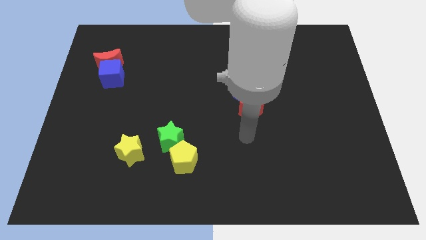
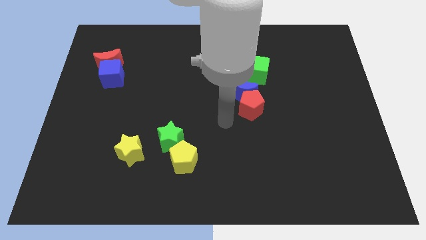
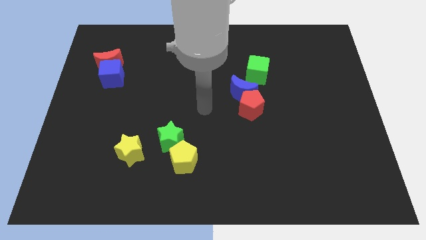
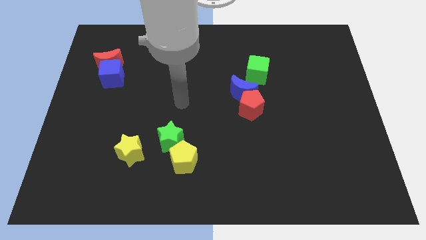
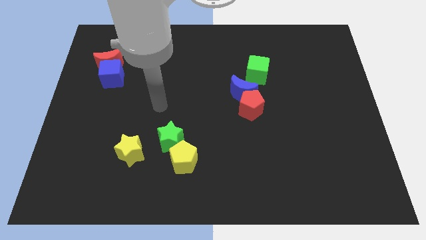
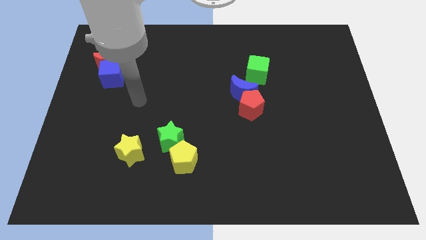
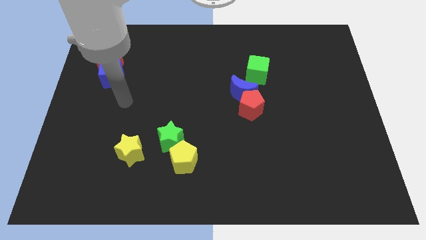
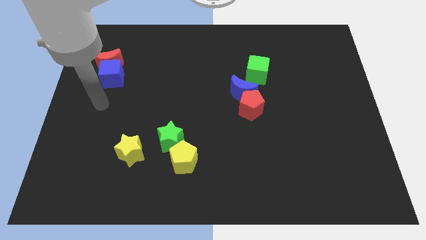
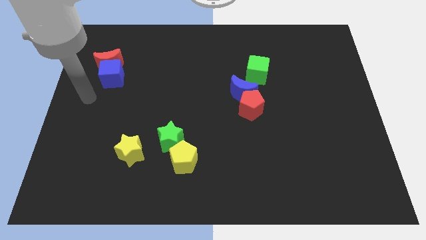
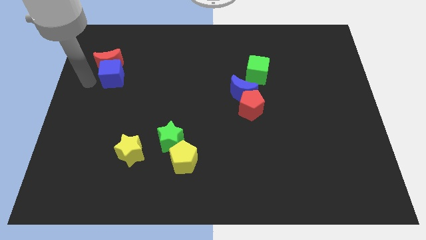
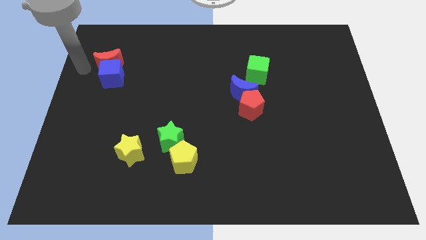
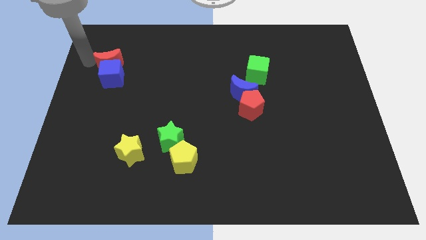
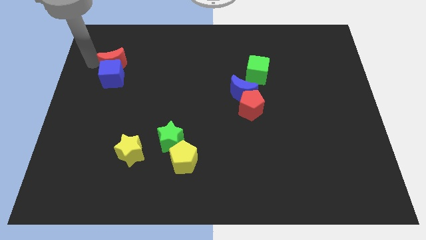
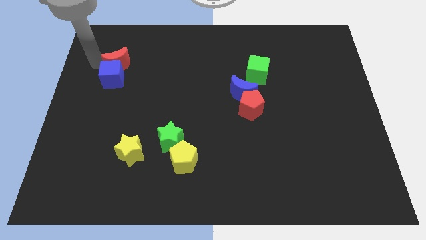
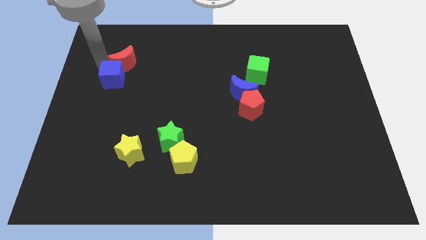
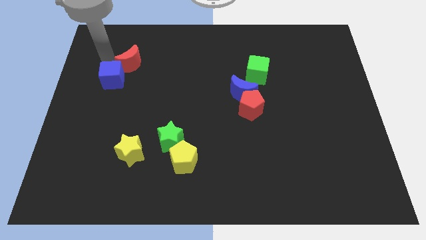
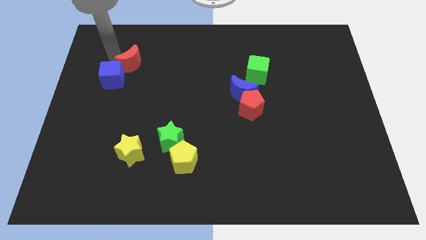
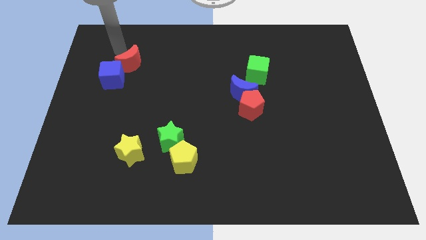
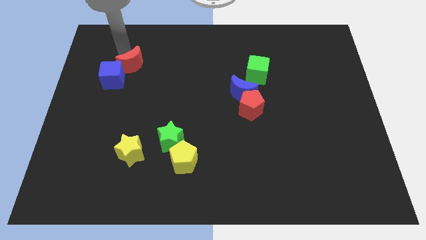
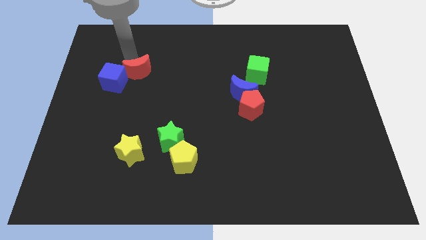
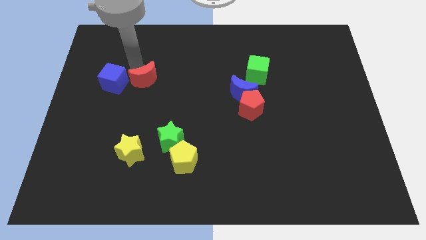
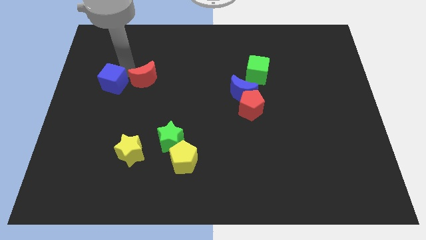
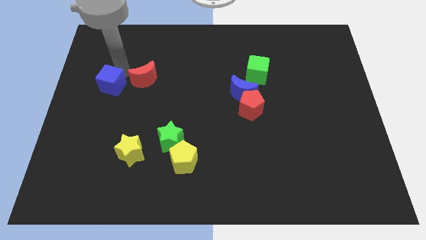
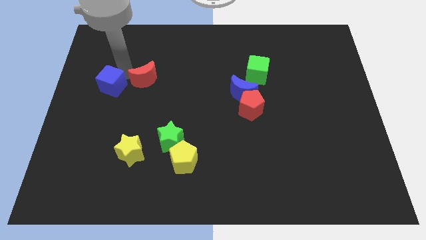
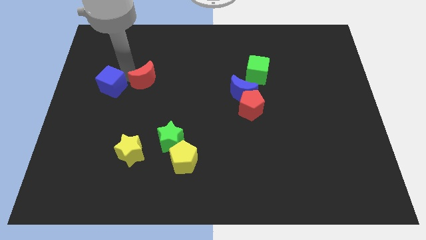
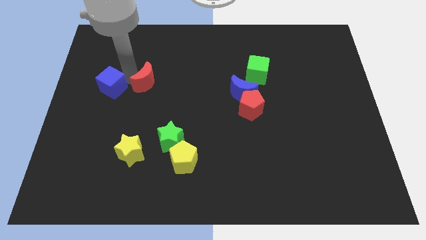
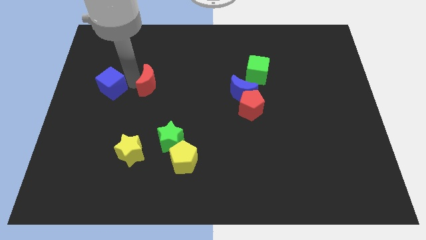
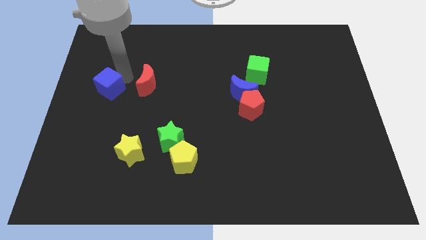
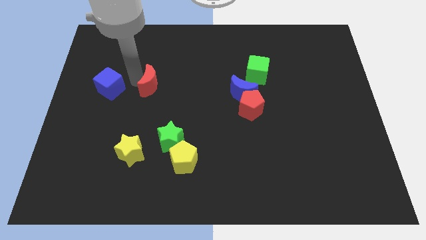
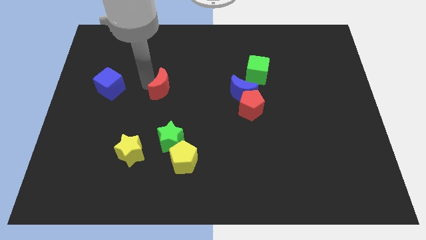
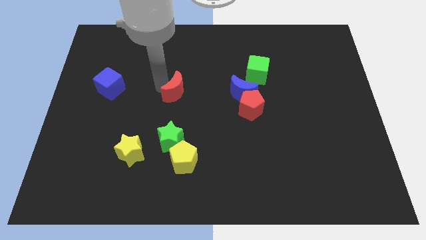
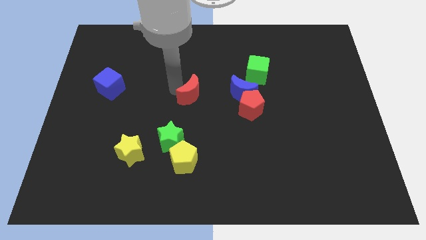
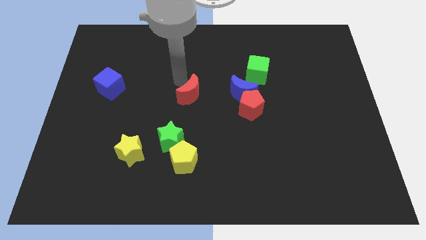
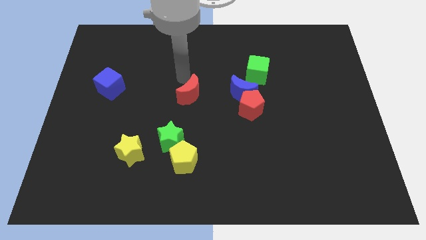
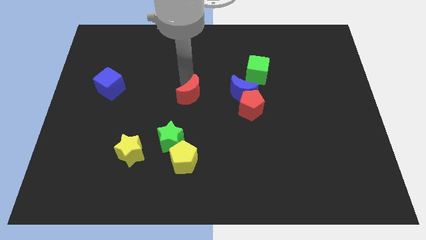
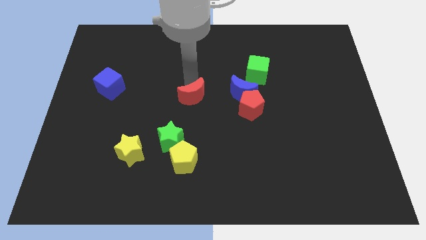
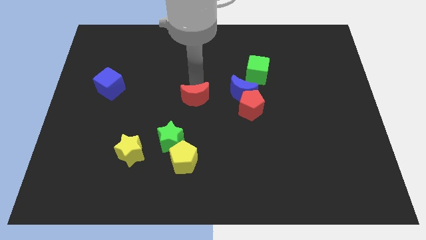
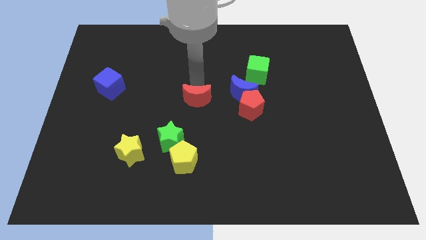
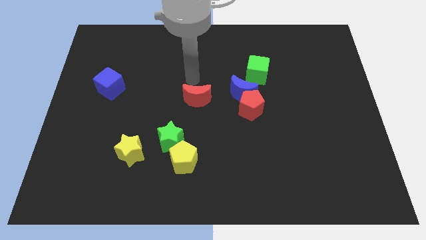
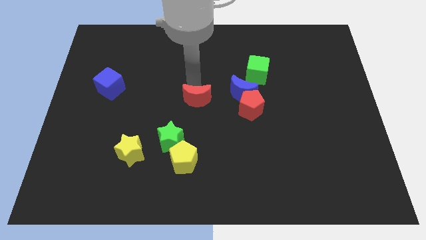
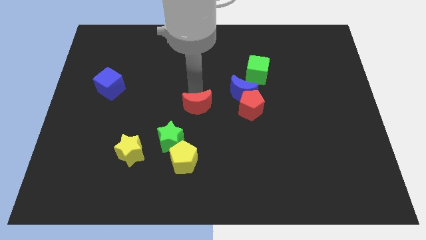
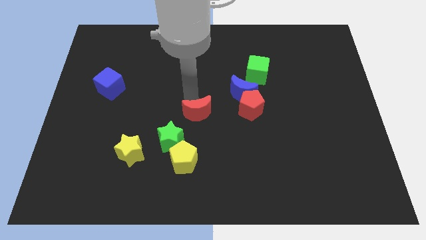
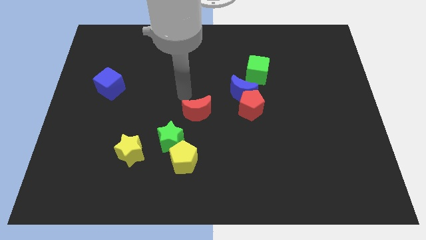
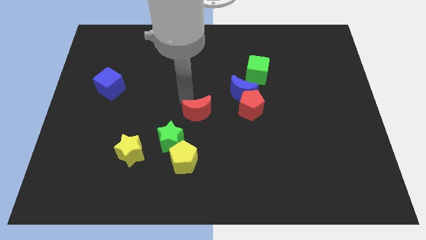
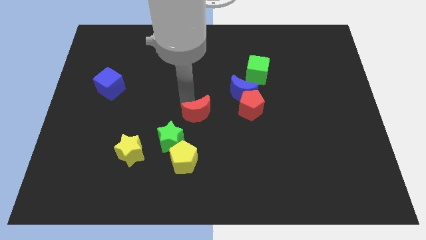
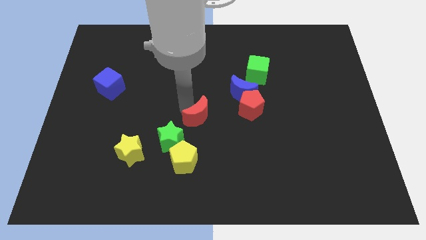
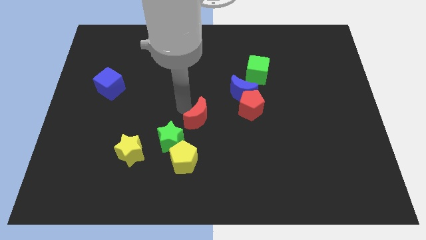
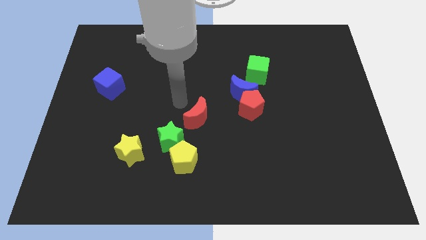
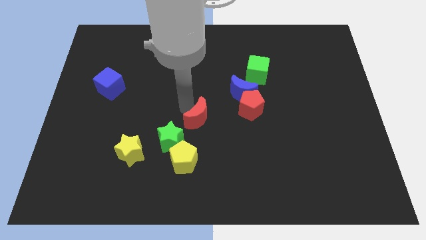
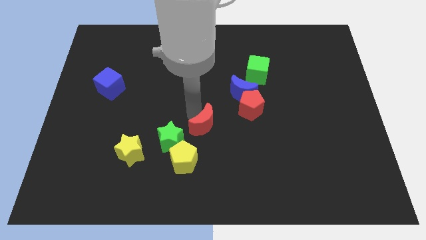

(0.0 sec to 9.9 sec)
slide the red moon right of the green star

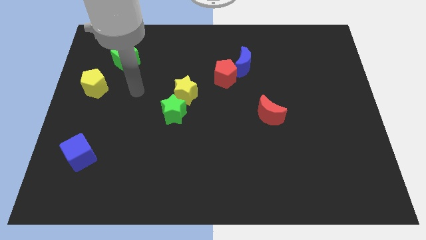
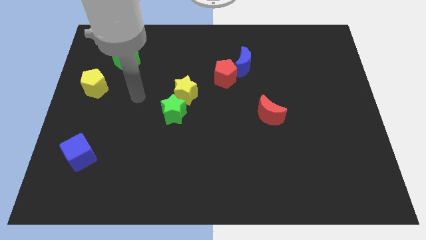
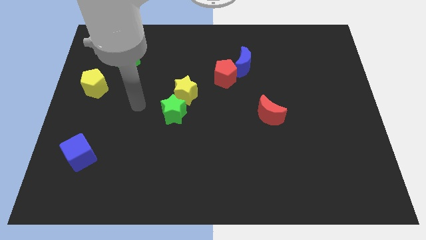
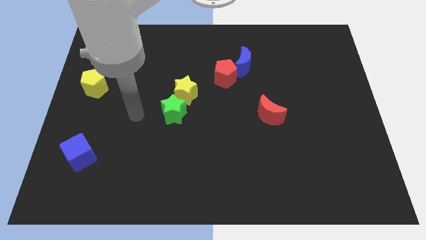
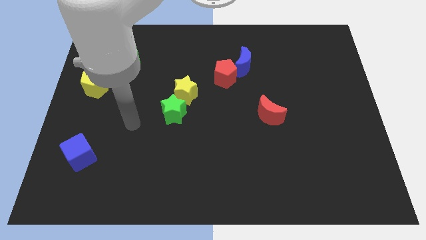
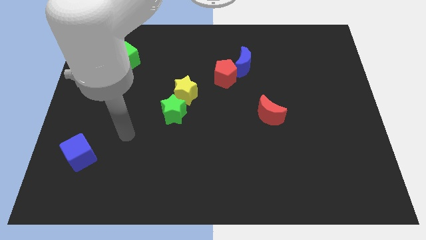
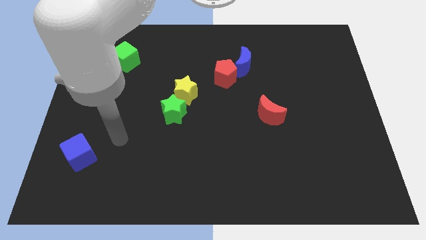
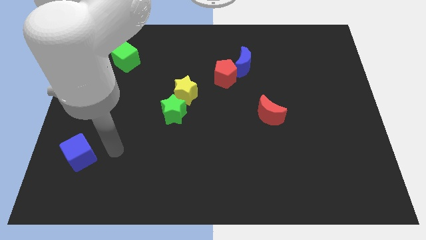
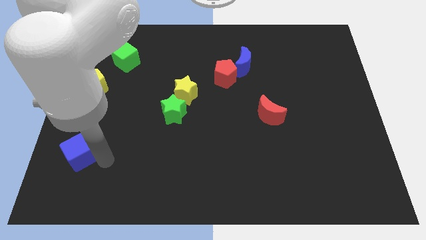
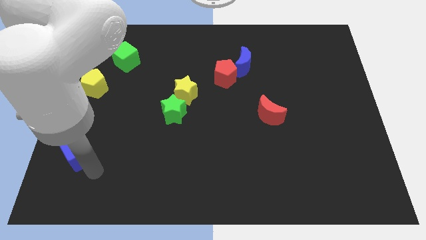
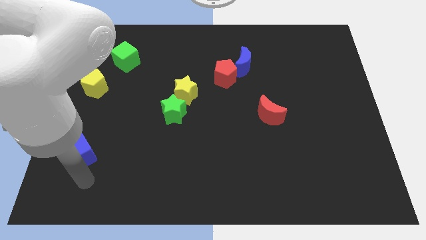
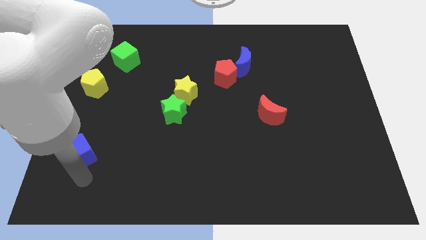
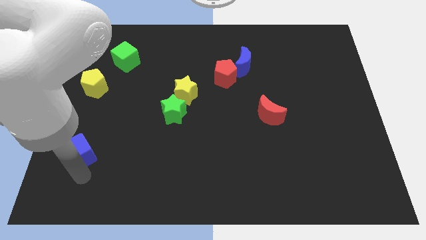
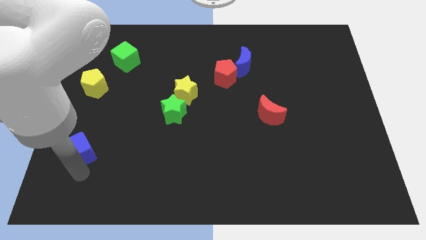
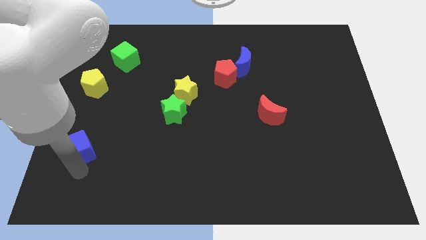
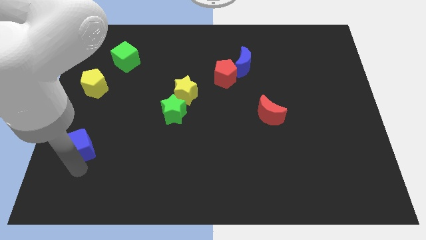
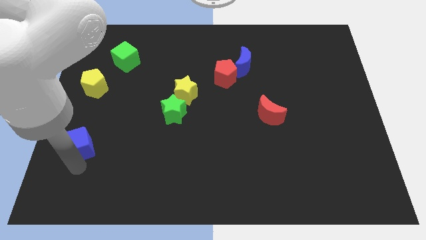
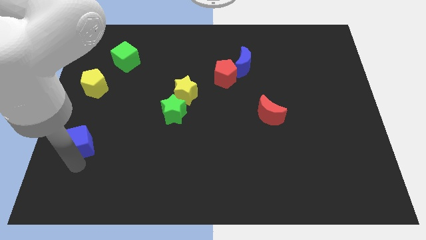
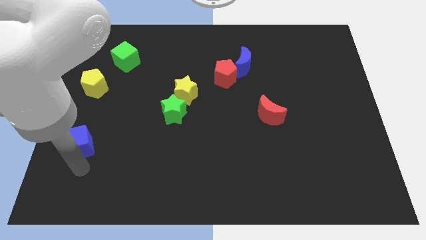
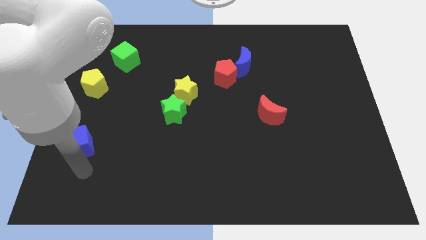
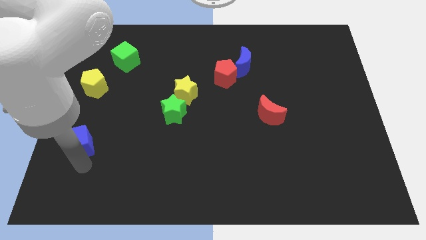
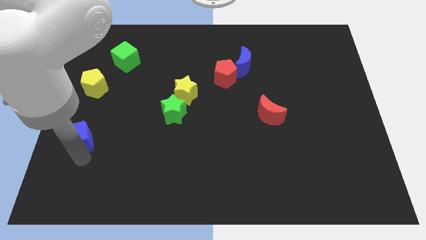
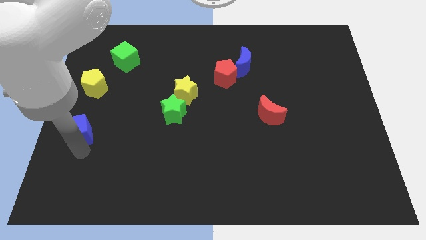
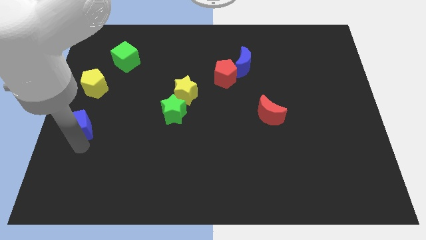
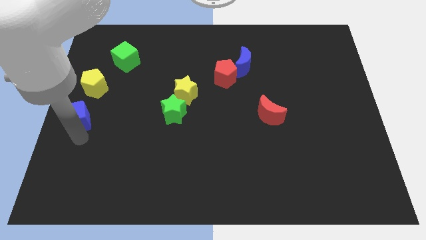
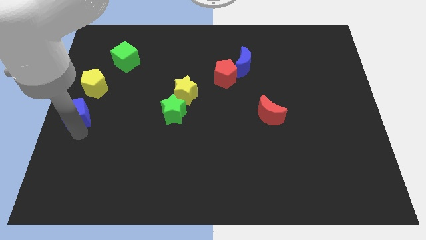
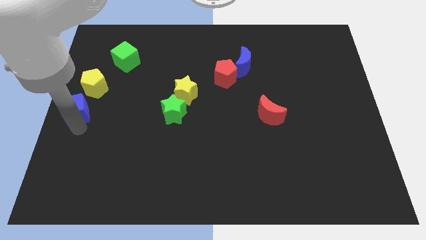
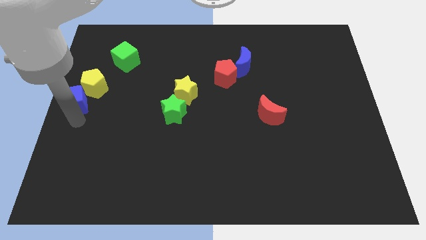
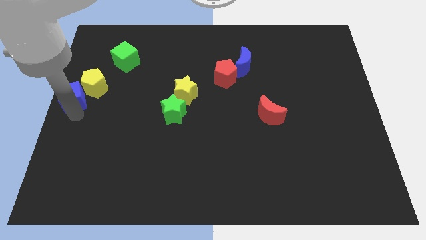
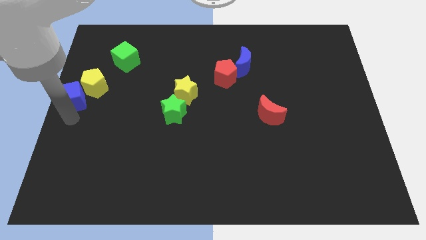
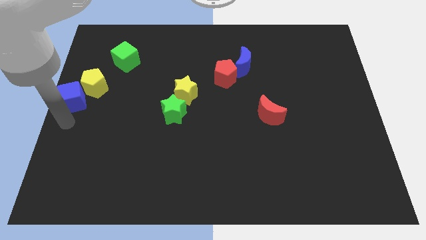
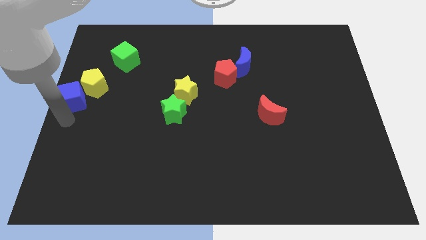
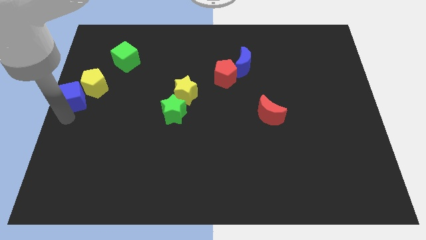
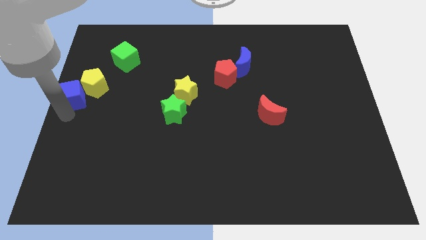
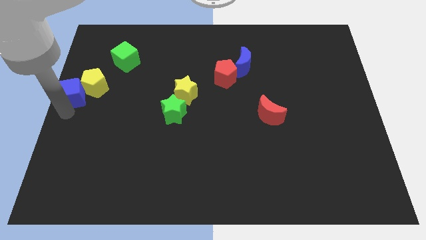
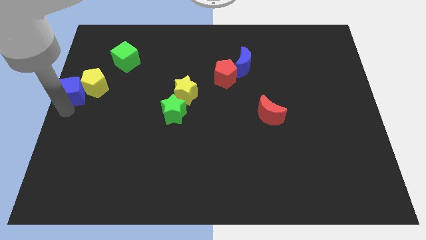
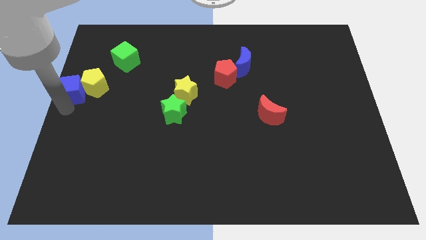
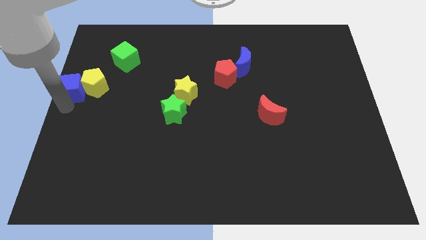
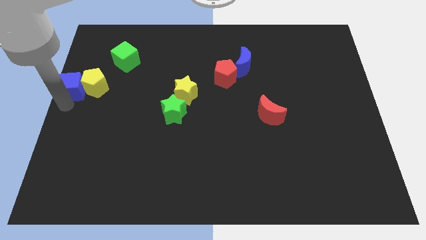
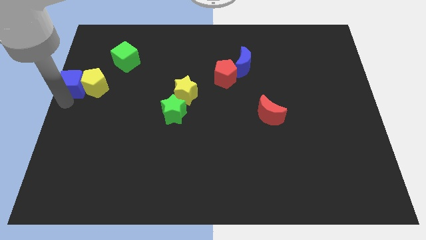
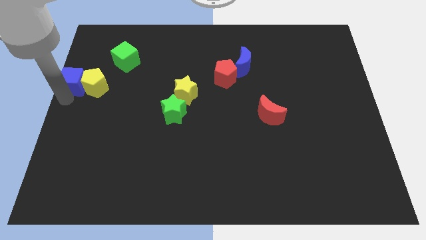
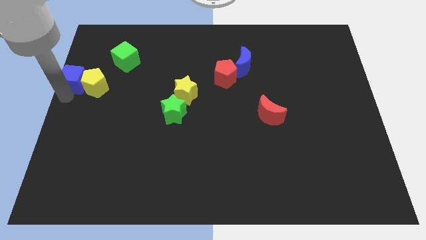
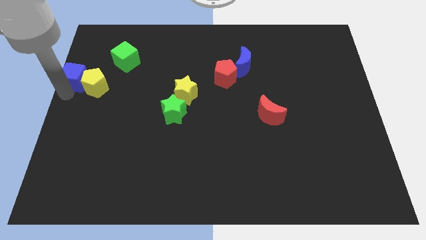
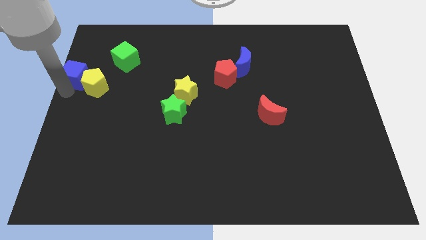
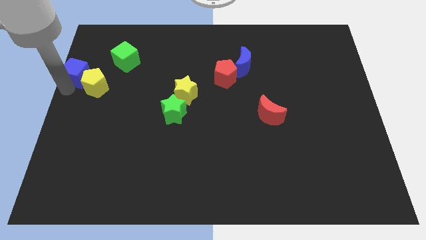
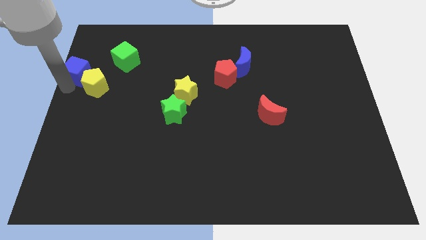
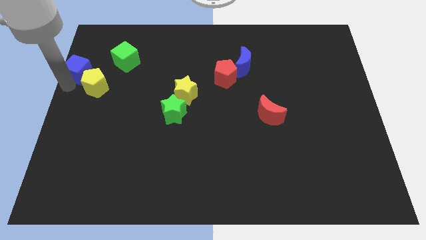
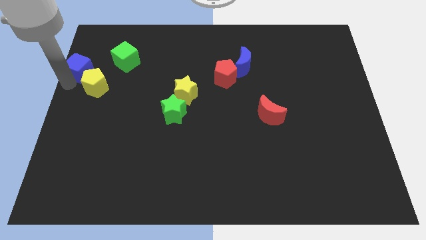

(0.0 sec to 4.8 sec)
push the blue cube to the top of the yellow pentagon
